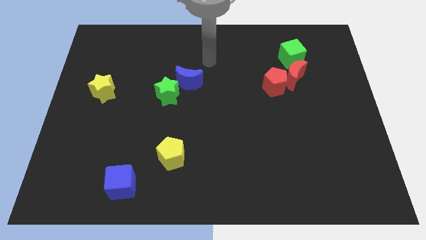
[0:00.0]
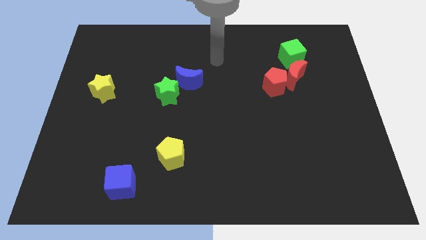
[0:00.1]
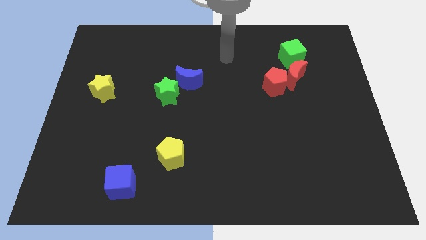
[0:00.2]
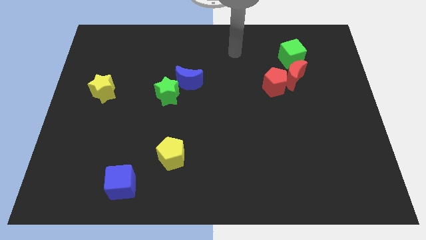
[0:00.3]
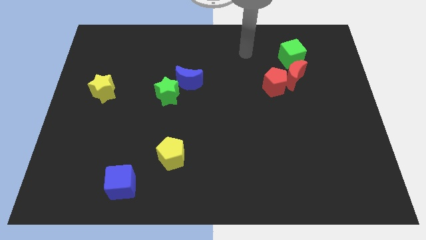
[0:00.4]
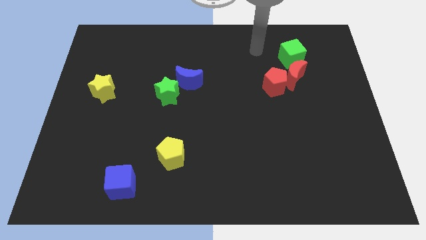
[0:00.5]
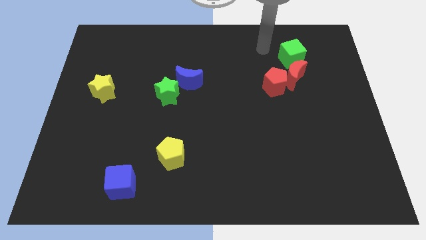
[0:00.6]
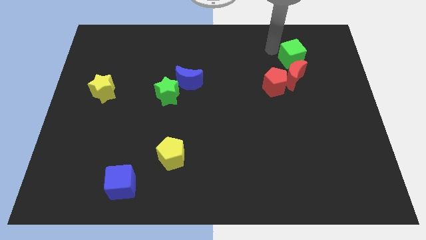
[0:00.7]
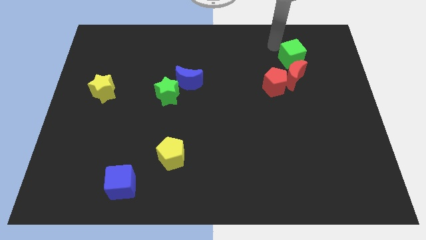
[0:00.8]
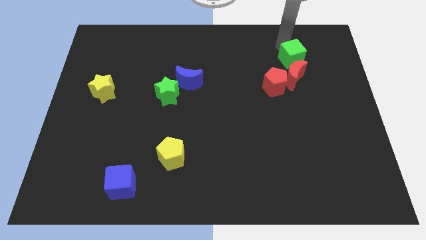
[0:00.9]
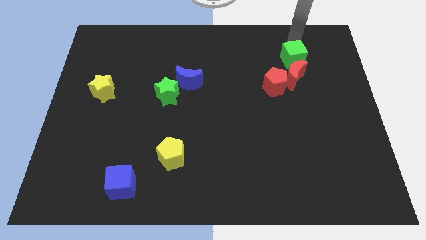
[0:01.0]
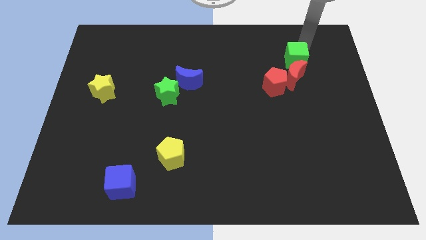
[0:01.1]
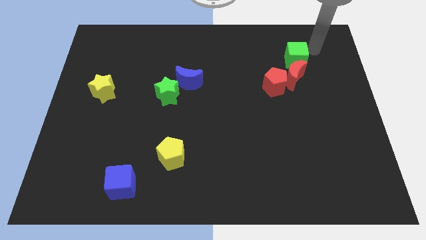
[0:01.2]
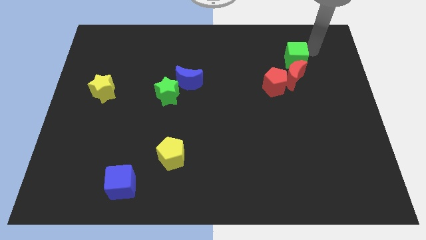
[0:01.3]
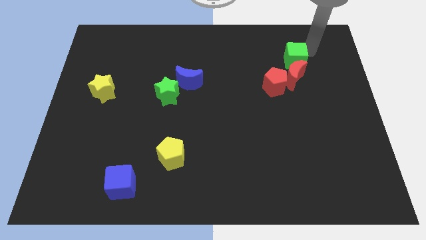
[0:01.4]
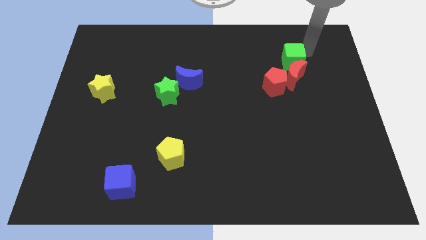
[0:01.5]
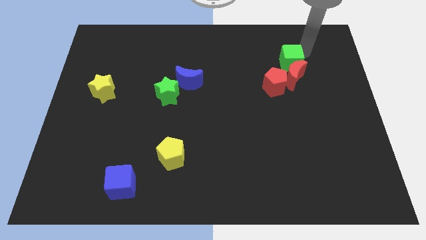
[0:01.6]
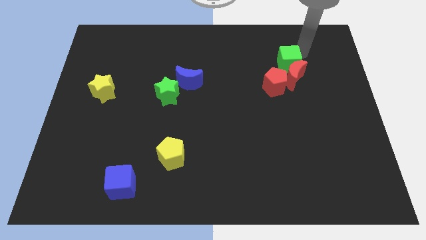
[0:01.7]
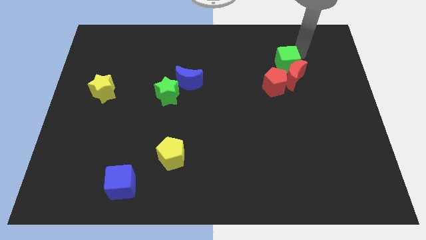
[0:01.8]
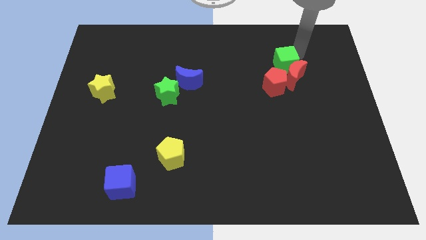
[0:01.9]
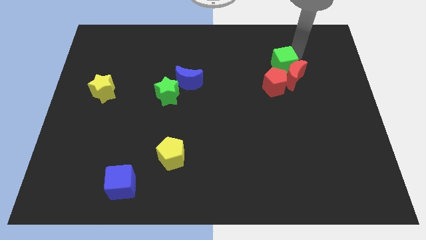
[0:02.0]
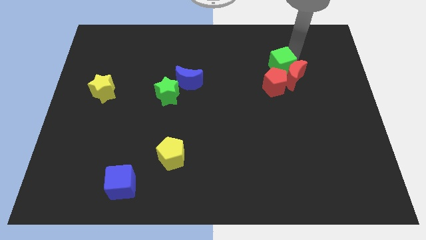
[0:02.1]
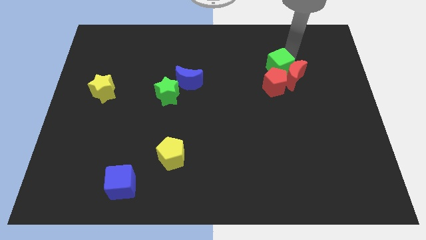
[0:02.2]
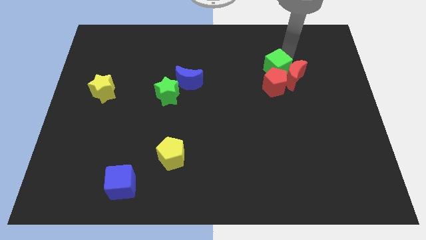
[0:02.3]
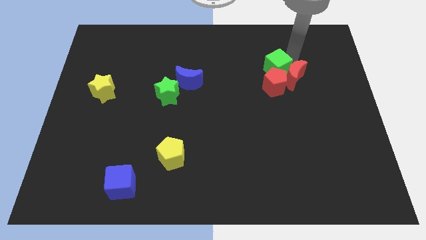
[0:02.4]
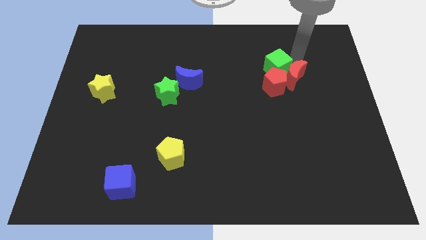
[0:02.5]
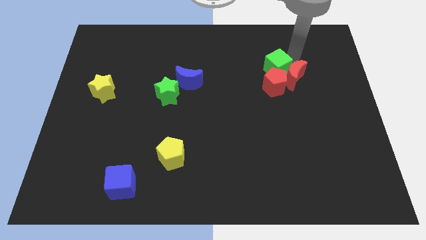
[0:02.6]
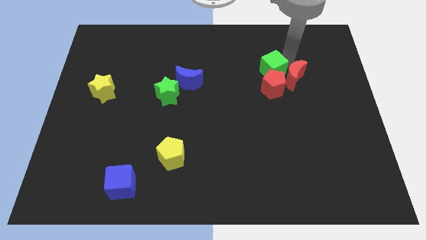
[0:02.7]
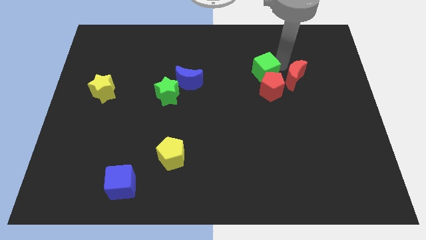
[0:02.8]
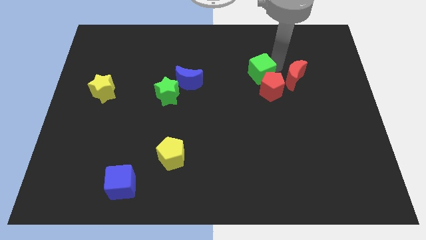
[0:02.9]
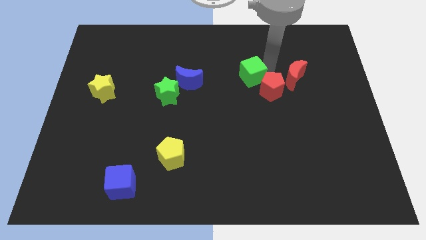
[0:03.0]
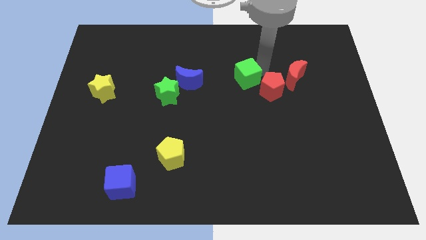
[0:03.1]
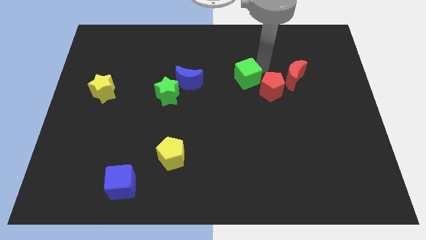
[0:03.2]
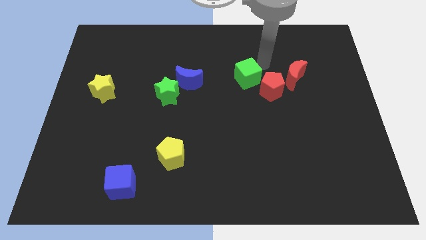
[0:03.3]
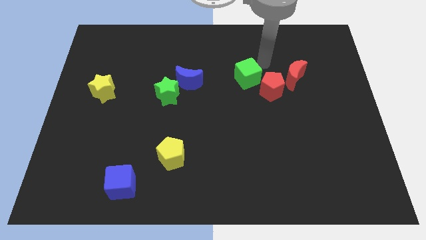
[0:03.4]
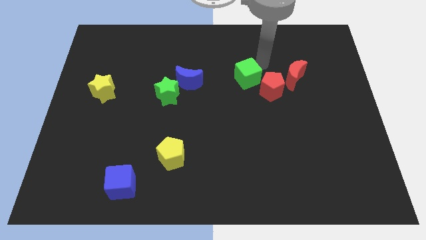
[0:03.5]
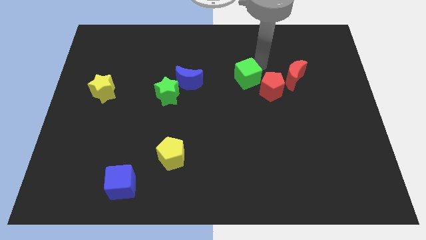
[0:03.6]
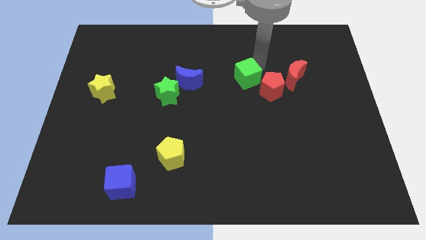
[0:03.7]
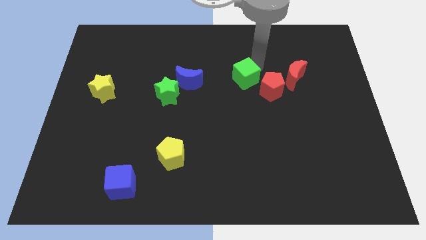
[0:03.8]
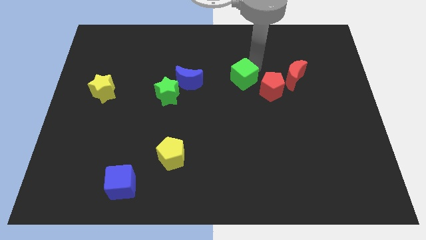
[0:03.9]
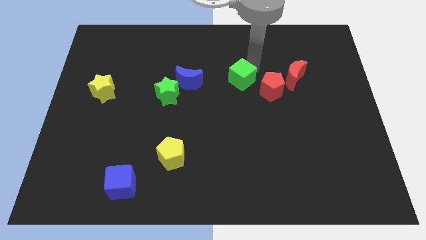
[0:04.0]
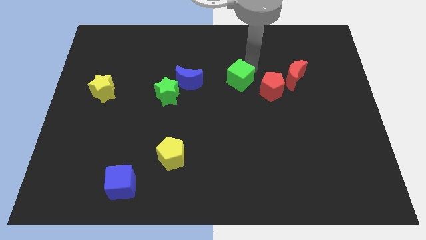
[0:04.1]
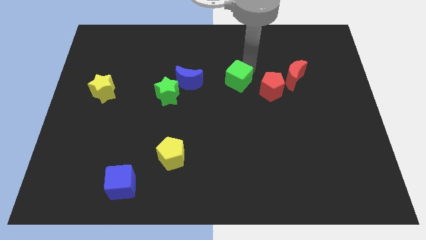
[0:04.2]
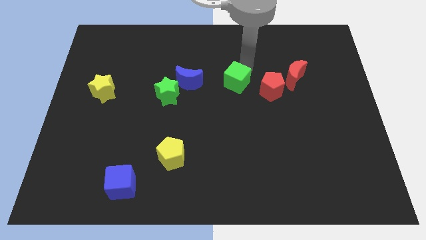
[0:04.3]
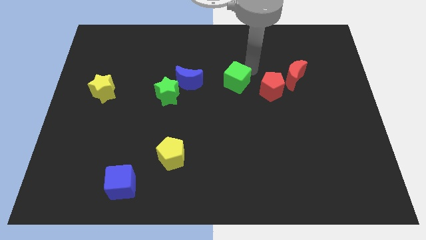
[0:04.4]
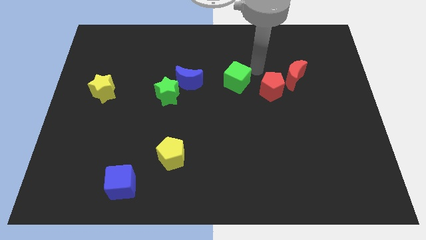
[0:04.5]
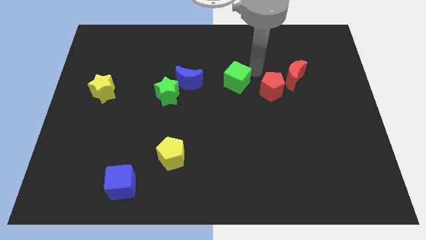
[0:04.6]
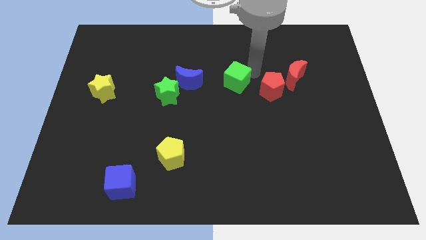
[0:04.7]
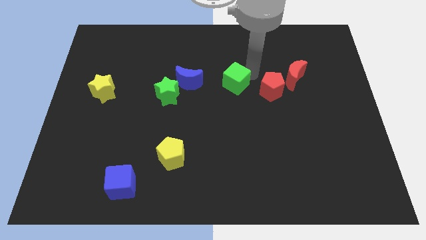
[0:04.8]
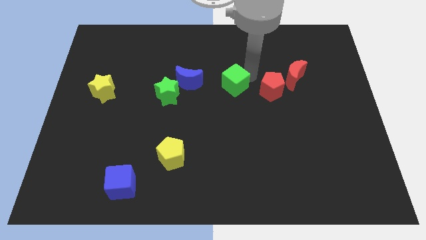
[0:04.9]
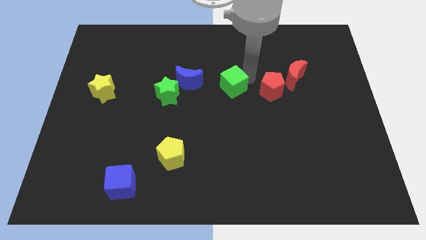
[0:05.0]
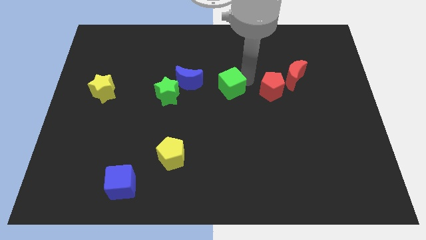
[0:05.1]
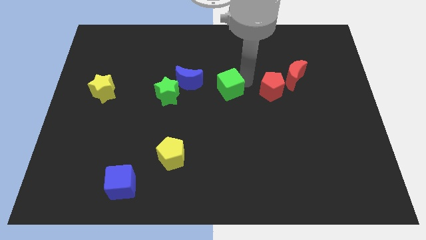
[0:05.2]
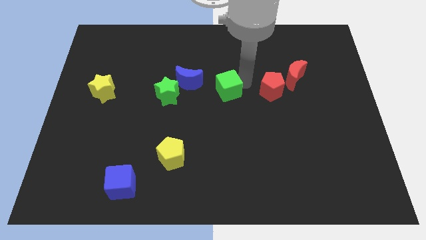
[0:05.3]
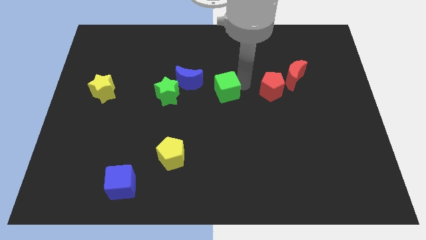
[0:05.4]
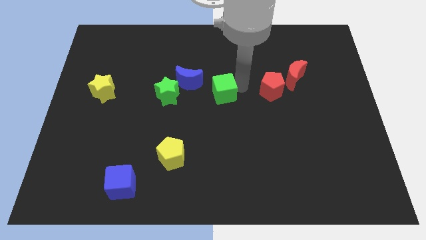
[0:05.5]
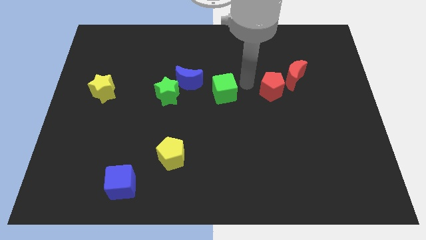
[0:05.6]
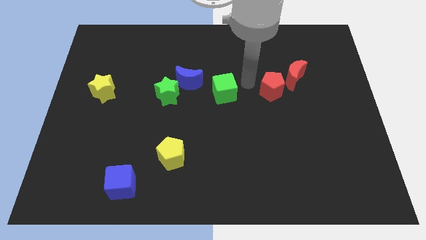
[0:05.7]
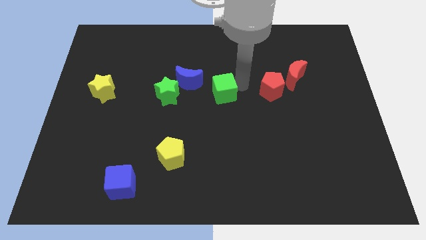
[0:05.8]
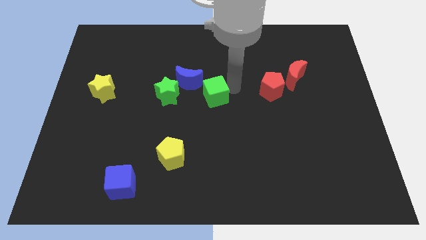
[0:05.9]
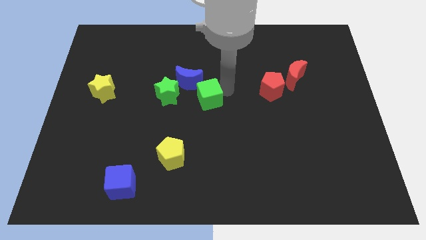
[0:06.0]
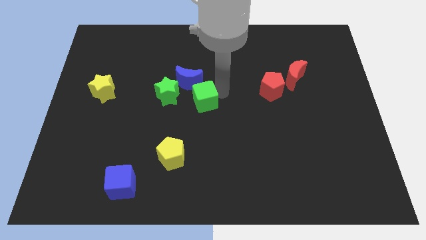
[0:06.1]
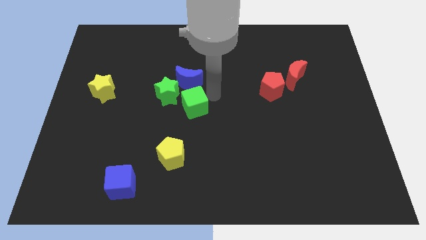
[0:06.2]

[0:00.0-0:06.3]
slide the green cube above the yellow pentagon

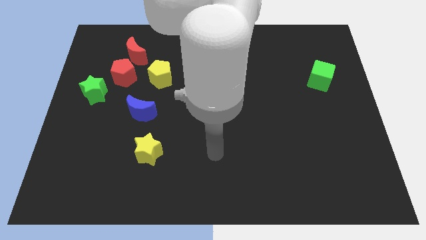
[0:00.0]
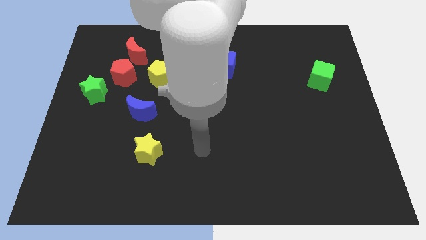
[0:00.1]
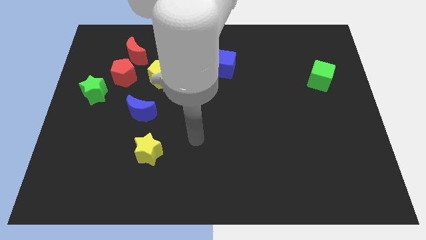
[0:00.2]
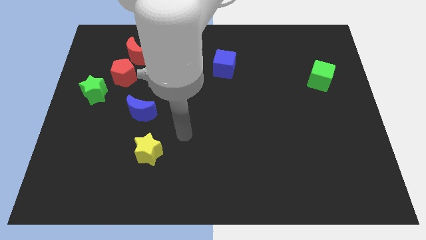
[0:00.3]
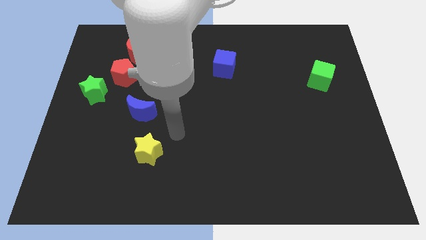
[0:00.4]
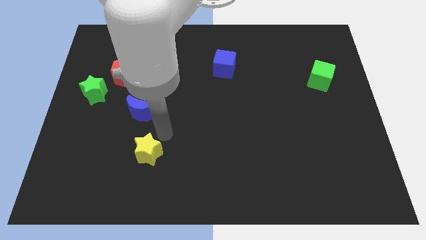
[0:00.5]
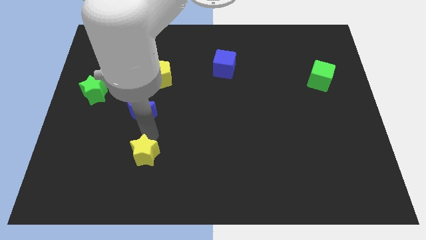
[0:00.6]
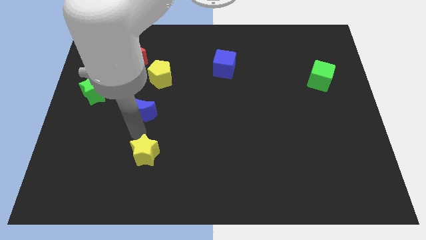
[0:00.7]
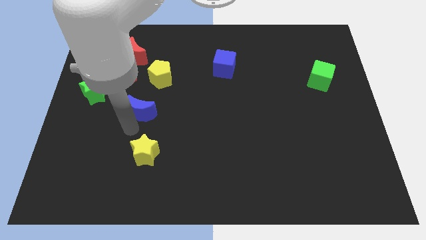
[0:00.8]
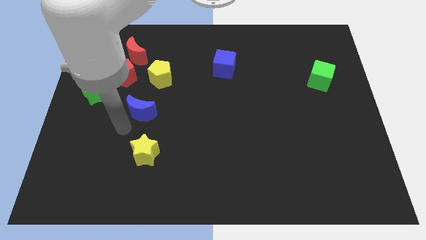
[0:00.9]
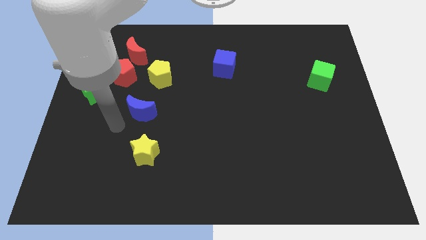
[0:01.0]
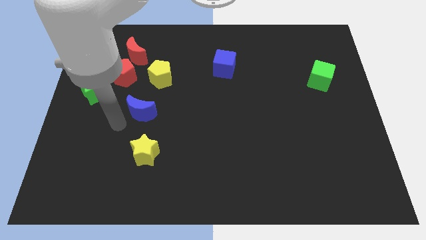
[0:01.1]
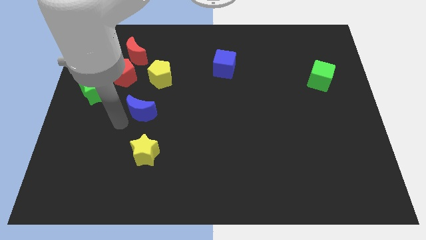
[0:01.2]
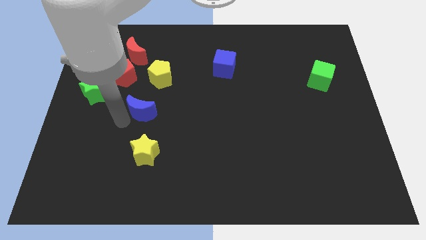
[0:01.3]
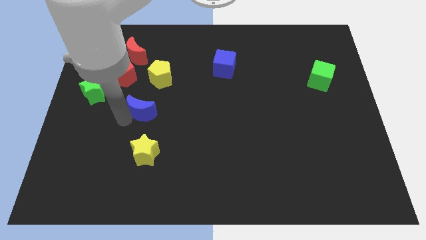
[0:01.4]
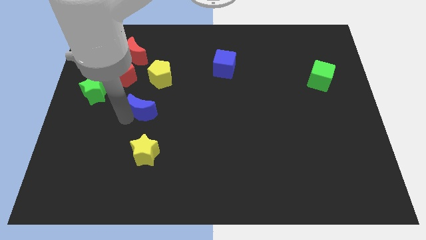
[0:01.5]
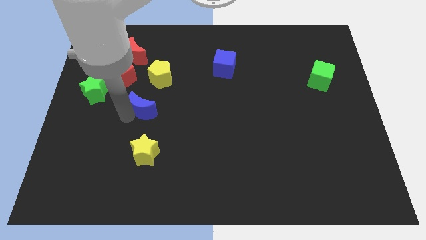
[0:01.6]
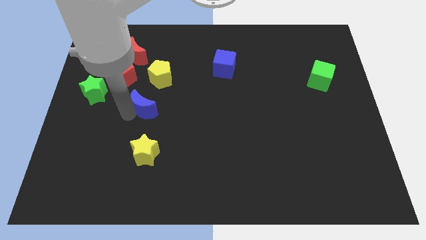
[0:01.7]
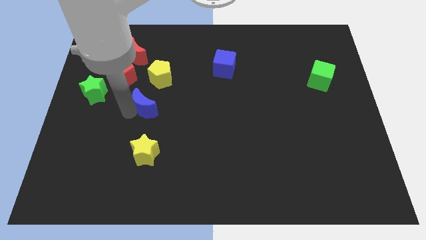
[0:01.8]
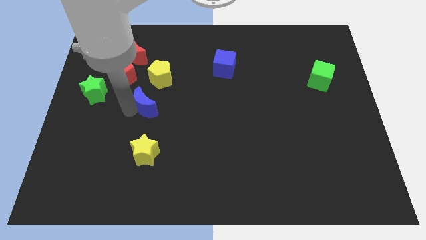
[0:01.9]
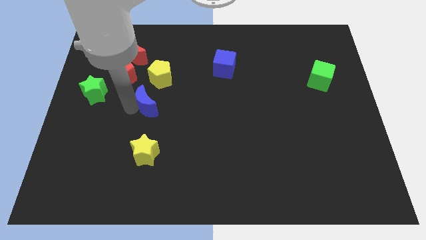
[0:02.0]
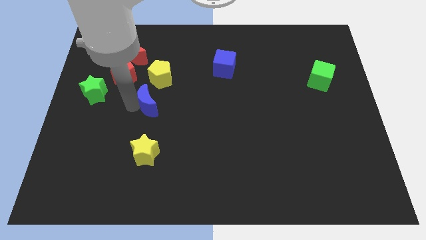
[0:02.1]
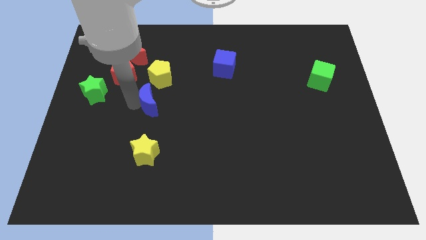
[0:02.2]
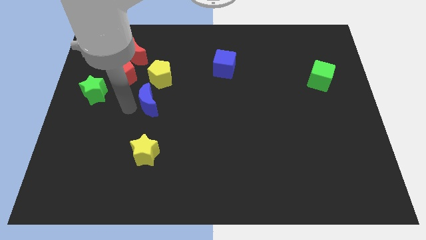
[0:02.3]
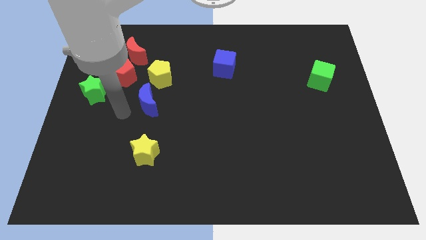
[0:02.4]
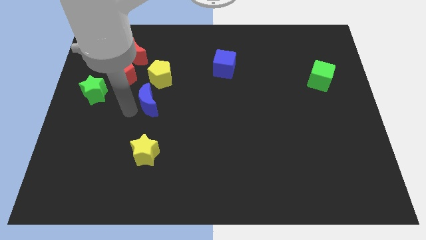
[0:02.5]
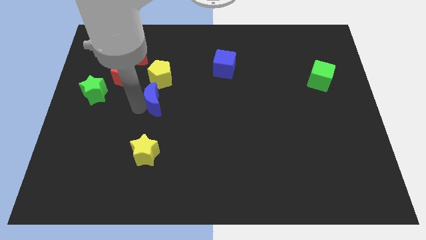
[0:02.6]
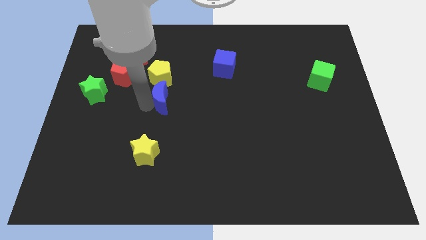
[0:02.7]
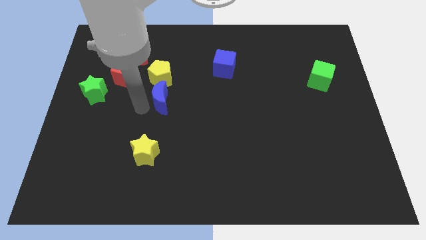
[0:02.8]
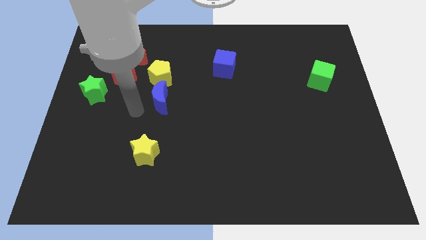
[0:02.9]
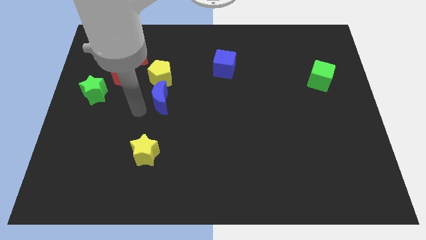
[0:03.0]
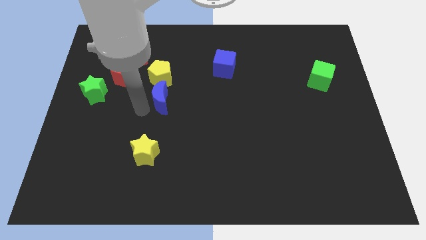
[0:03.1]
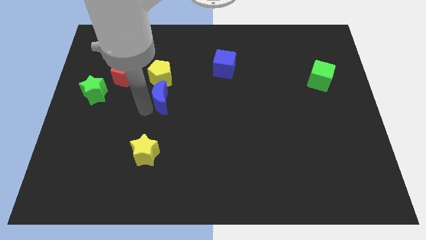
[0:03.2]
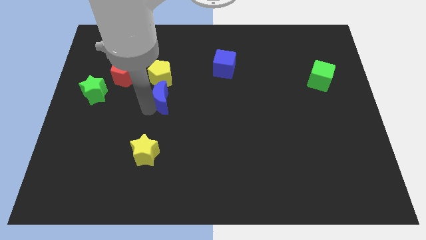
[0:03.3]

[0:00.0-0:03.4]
move the blue moon diagonally down and to the right of the yellow pentagon
